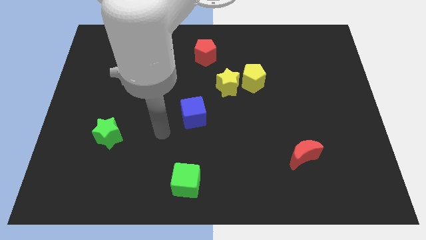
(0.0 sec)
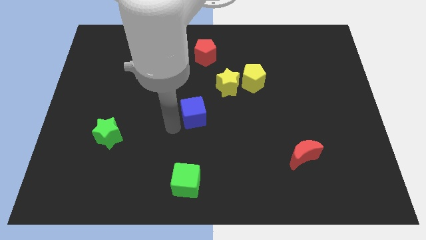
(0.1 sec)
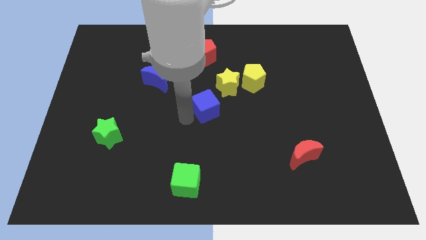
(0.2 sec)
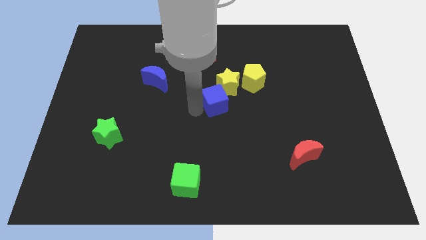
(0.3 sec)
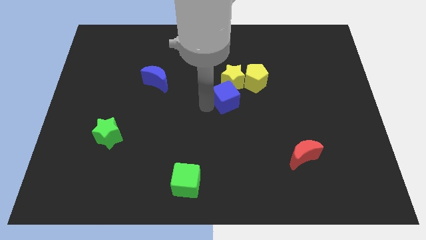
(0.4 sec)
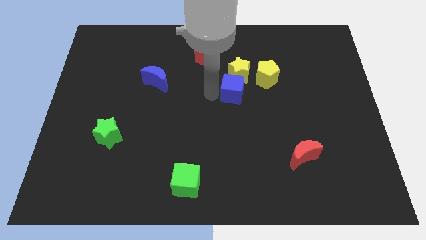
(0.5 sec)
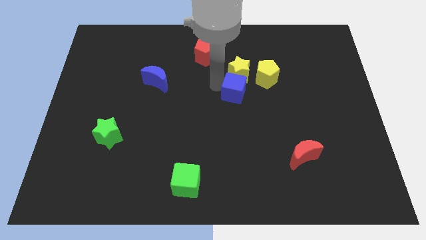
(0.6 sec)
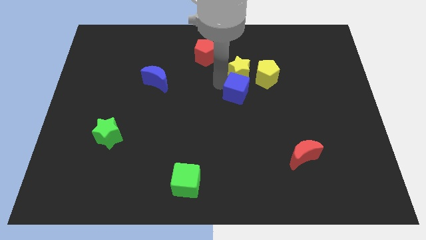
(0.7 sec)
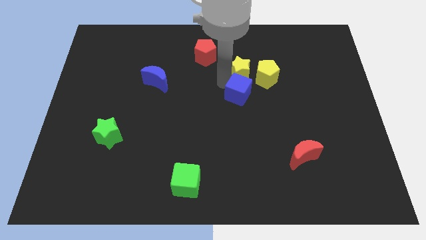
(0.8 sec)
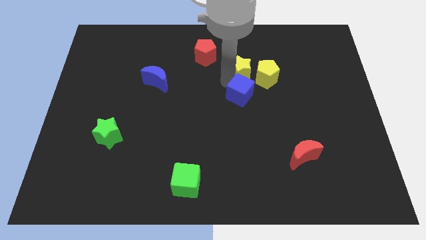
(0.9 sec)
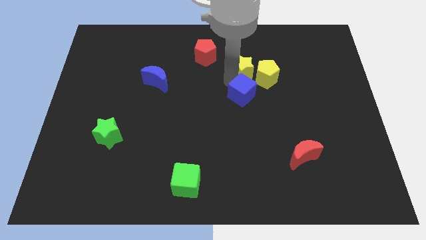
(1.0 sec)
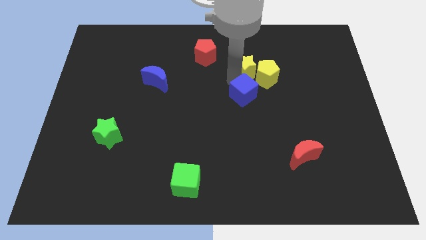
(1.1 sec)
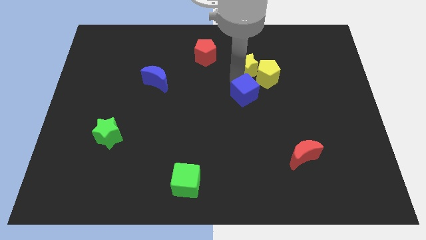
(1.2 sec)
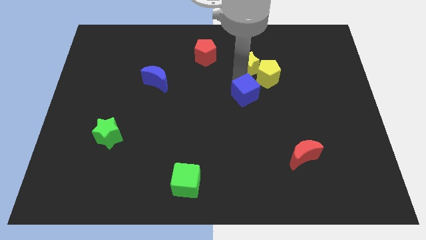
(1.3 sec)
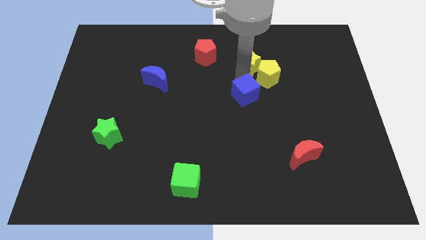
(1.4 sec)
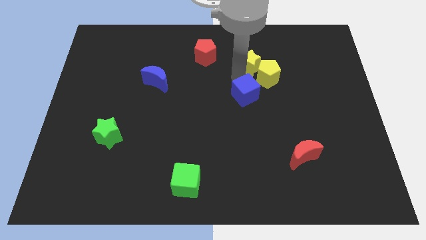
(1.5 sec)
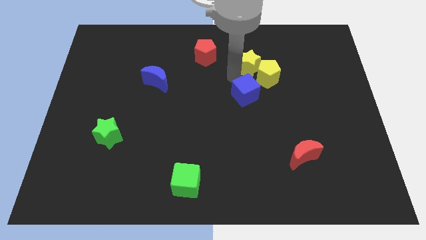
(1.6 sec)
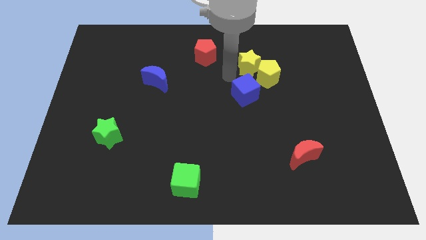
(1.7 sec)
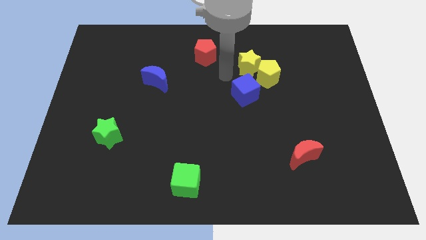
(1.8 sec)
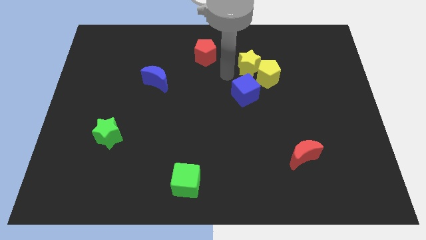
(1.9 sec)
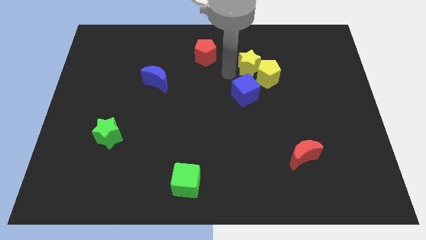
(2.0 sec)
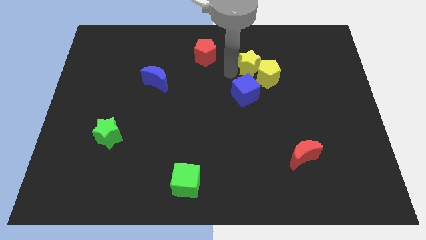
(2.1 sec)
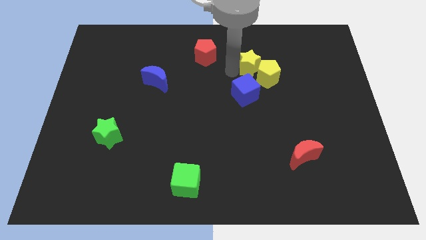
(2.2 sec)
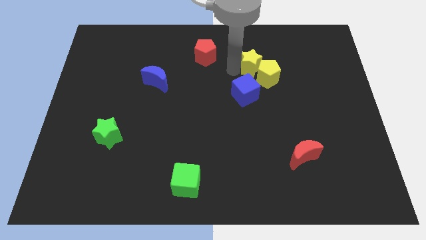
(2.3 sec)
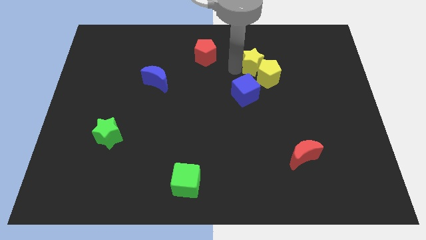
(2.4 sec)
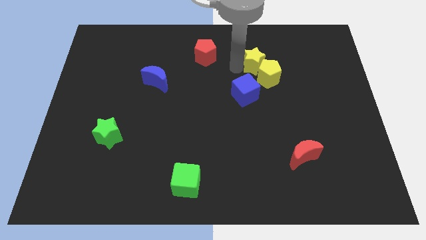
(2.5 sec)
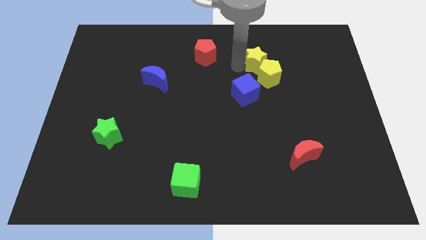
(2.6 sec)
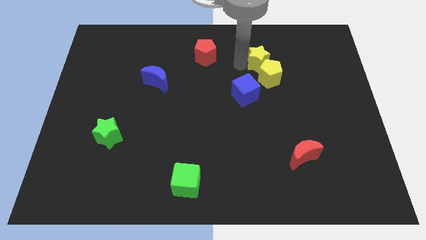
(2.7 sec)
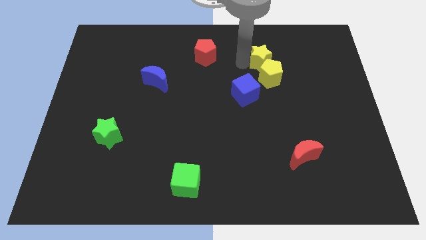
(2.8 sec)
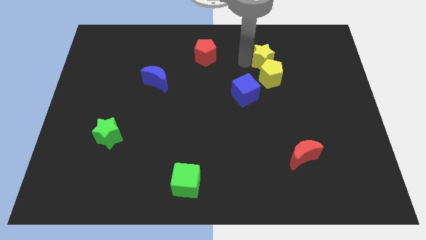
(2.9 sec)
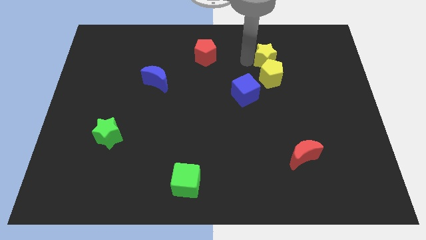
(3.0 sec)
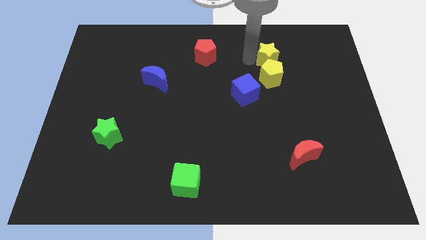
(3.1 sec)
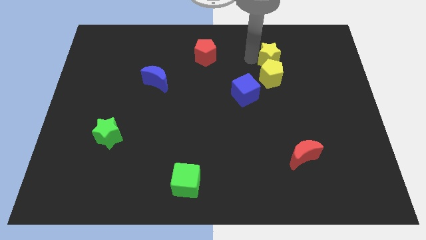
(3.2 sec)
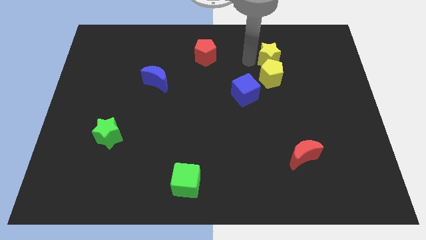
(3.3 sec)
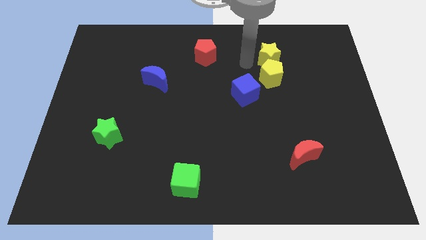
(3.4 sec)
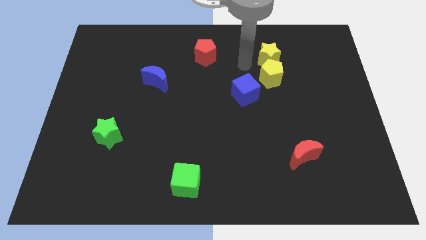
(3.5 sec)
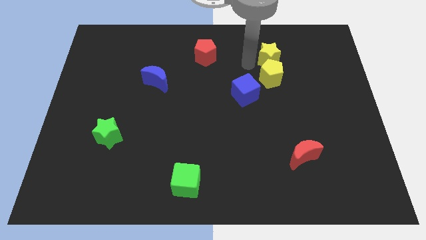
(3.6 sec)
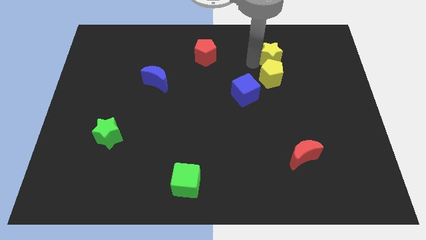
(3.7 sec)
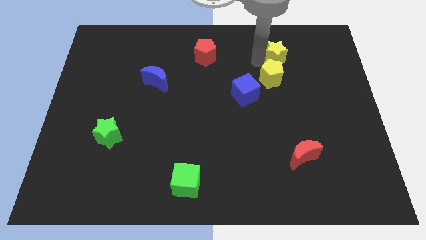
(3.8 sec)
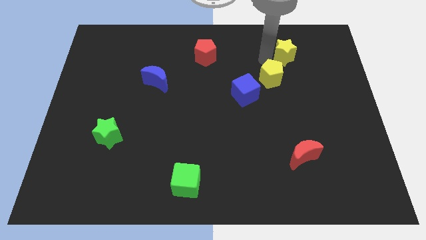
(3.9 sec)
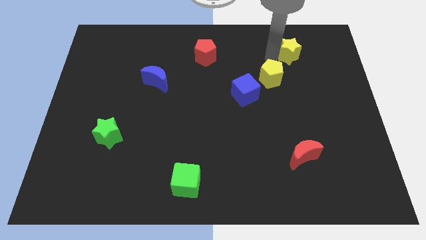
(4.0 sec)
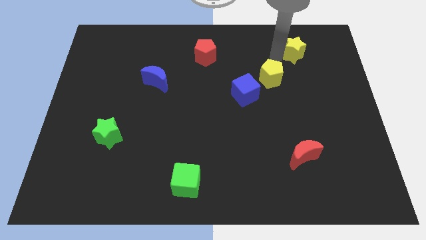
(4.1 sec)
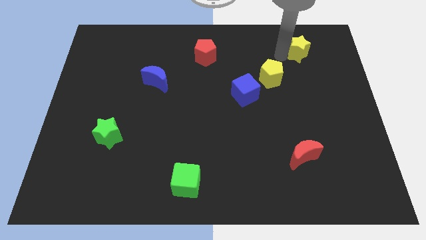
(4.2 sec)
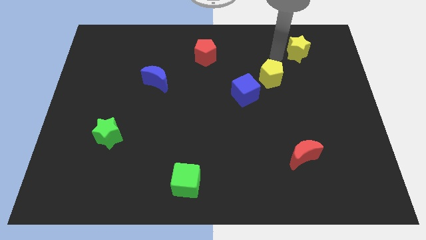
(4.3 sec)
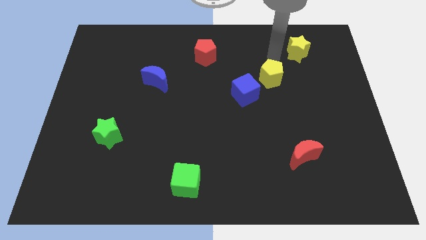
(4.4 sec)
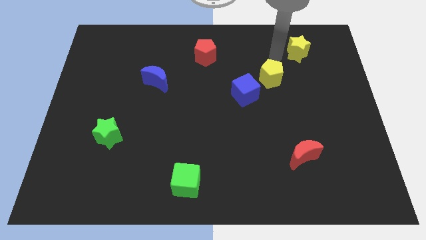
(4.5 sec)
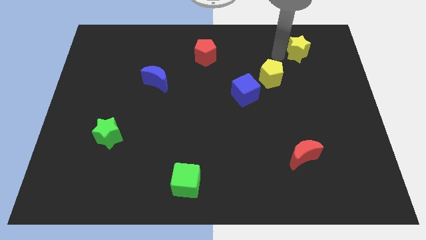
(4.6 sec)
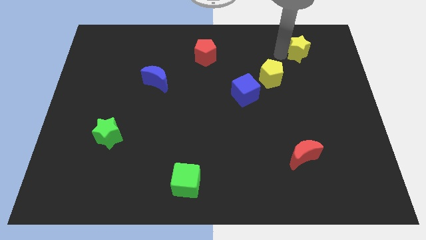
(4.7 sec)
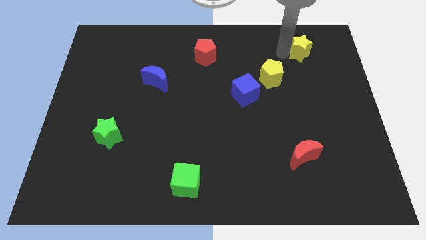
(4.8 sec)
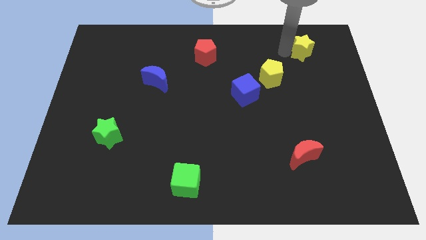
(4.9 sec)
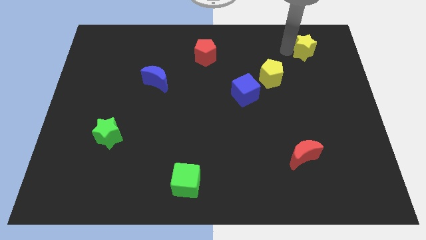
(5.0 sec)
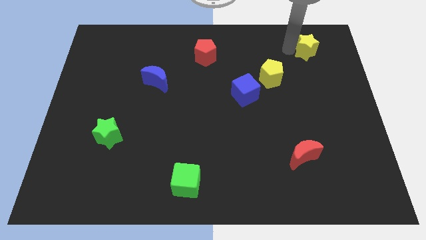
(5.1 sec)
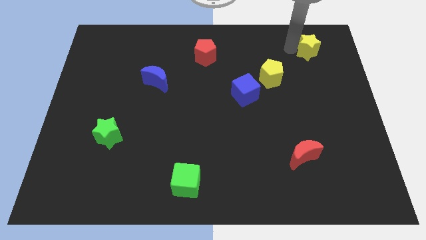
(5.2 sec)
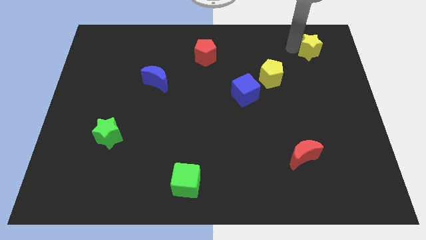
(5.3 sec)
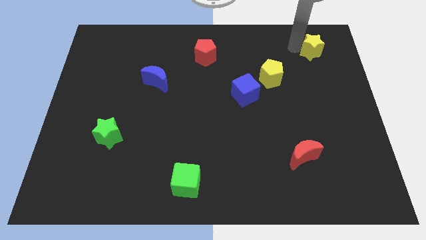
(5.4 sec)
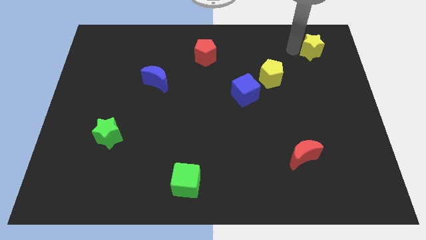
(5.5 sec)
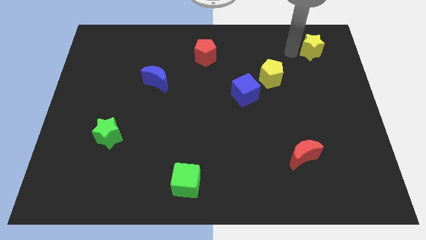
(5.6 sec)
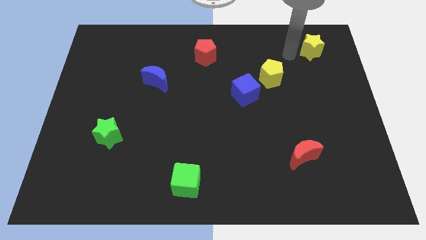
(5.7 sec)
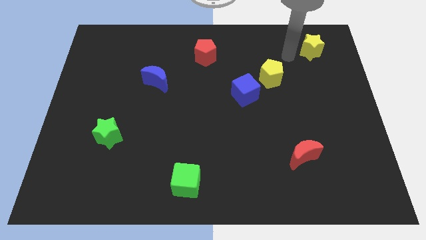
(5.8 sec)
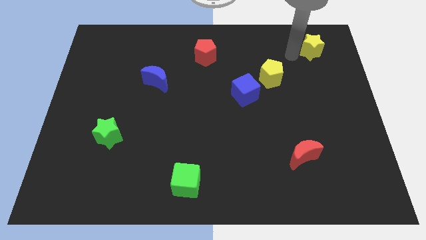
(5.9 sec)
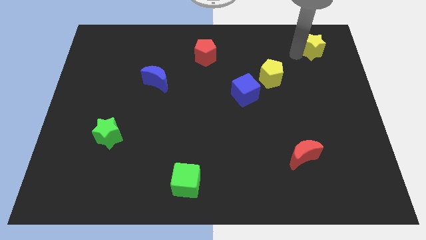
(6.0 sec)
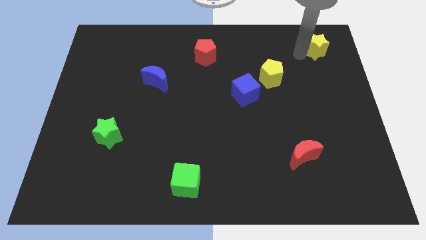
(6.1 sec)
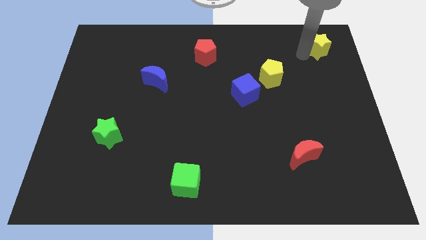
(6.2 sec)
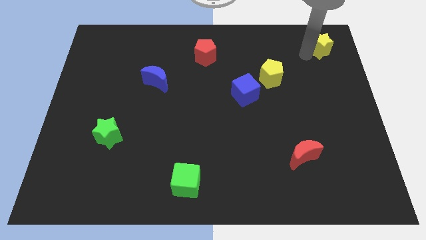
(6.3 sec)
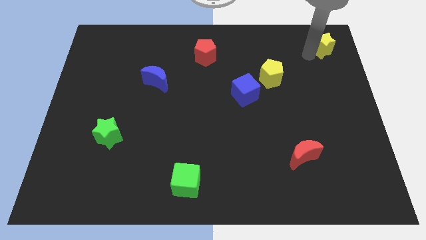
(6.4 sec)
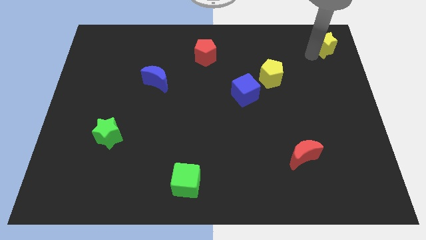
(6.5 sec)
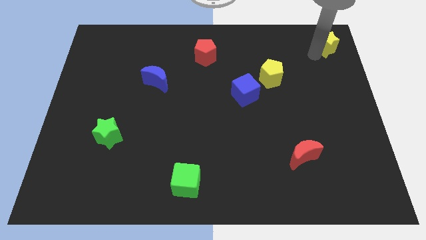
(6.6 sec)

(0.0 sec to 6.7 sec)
move the yellow star to the upper right corner
